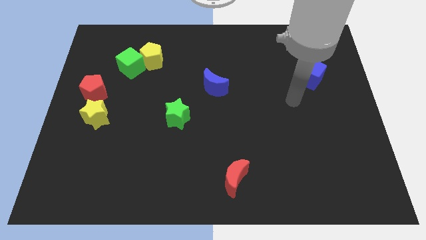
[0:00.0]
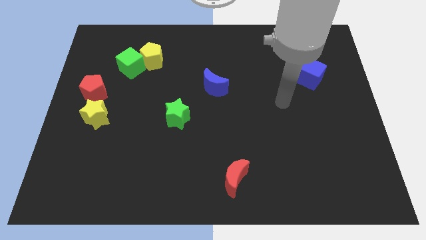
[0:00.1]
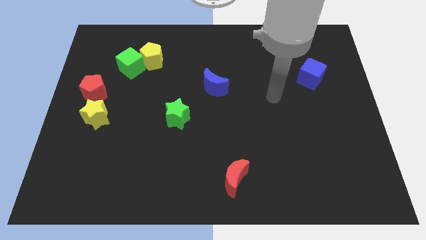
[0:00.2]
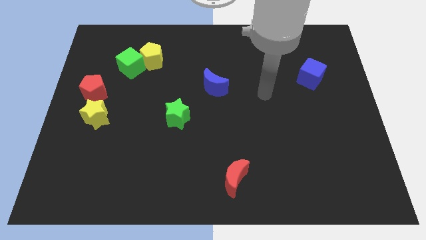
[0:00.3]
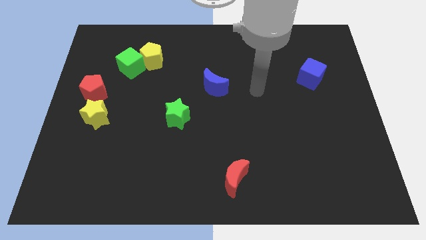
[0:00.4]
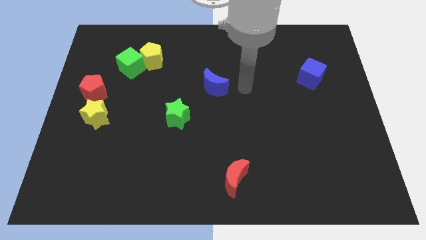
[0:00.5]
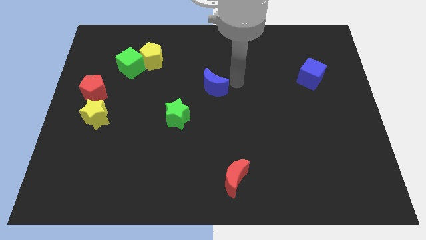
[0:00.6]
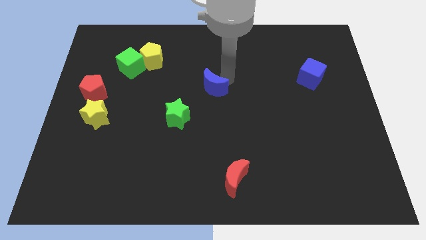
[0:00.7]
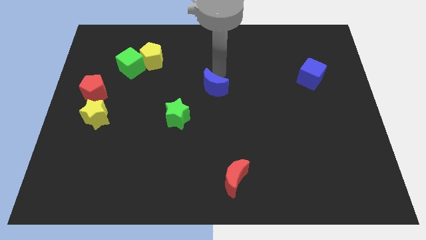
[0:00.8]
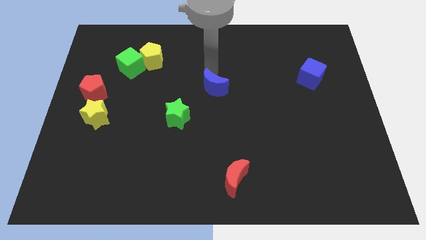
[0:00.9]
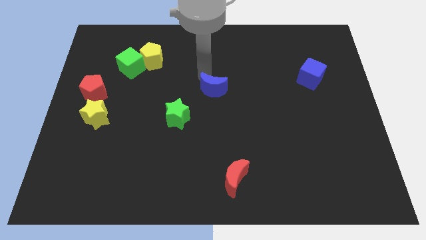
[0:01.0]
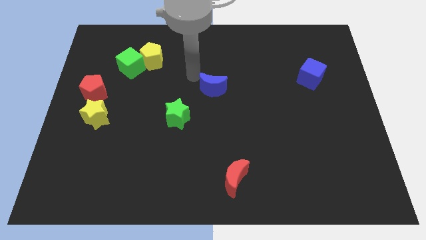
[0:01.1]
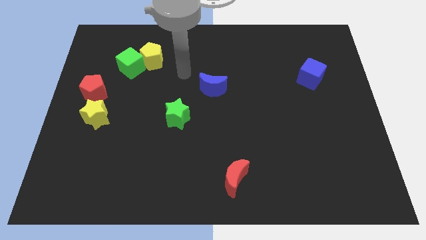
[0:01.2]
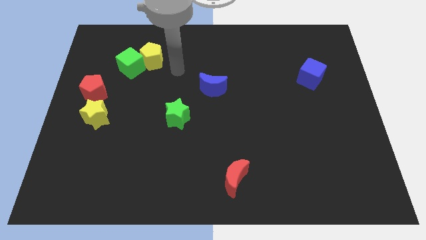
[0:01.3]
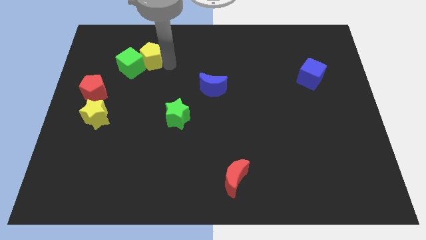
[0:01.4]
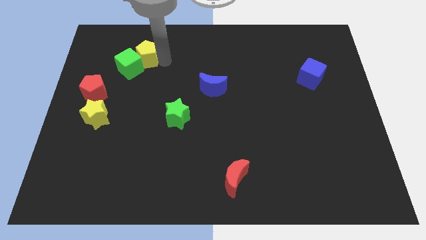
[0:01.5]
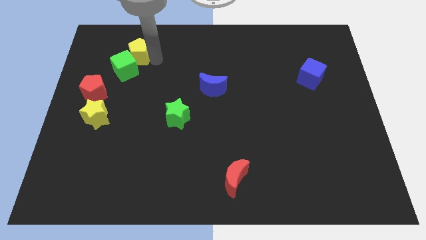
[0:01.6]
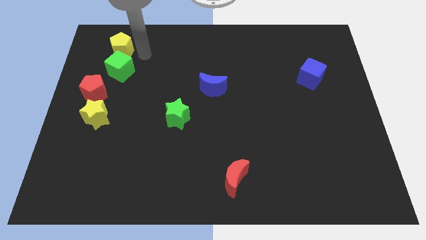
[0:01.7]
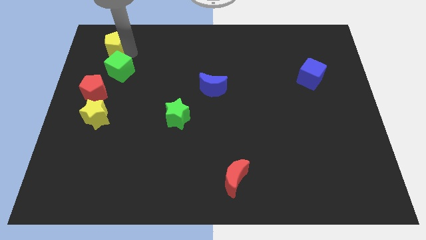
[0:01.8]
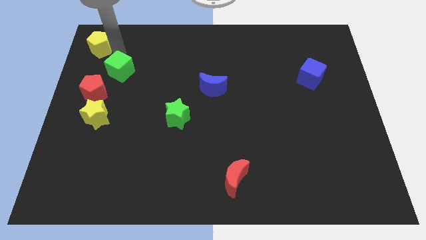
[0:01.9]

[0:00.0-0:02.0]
pull the green cube apart from the yellow pentagon

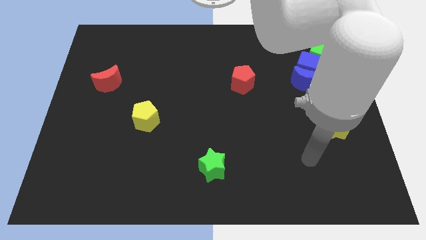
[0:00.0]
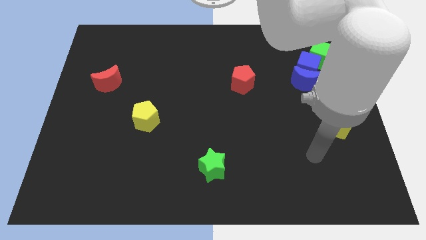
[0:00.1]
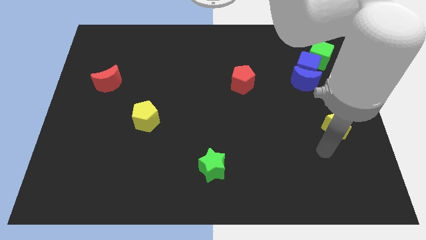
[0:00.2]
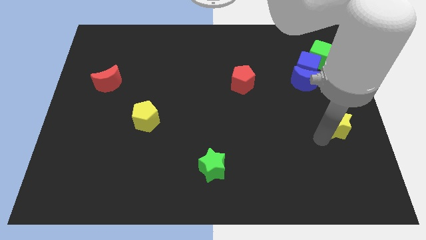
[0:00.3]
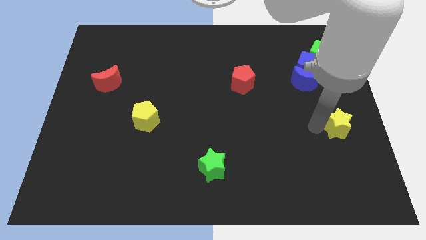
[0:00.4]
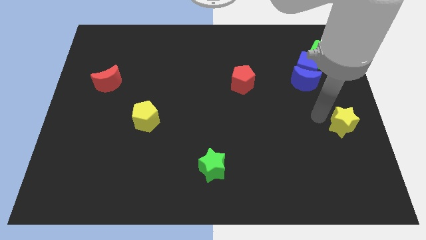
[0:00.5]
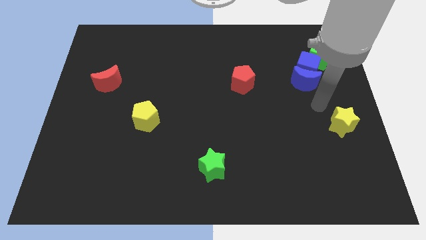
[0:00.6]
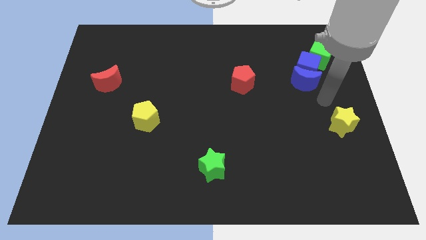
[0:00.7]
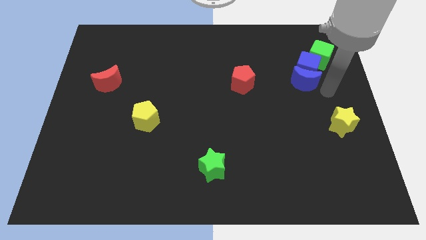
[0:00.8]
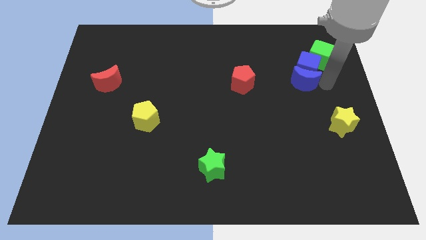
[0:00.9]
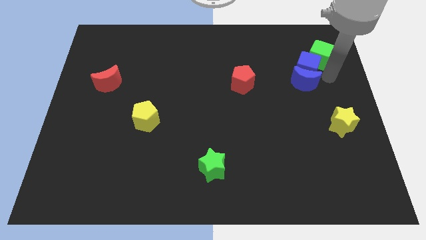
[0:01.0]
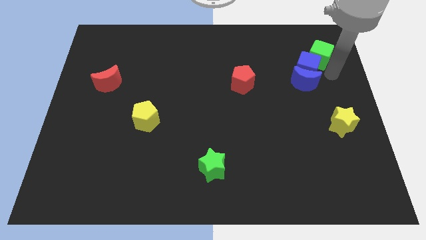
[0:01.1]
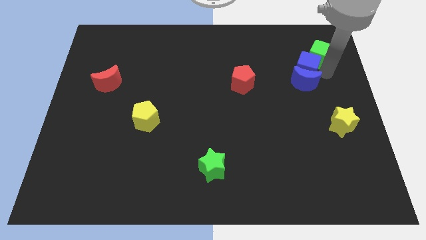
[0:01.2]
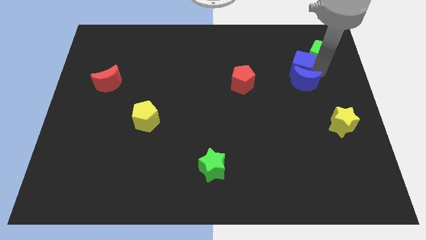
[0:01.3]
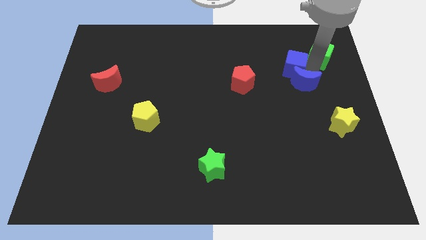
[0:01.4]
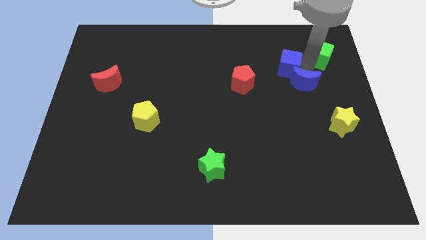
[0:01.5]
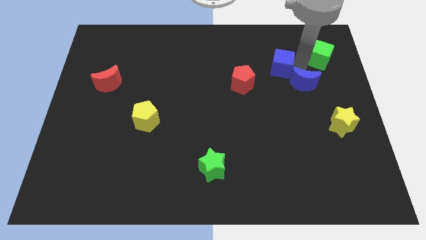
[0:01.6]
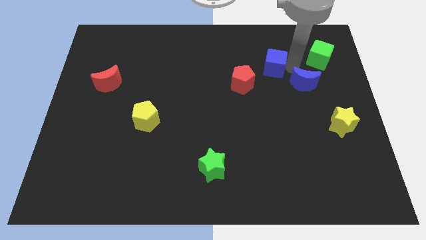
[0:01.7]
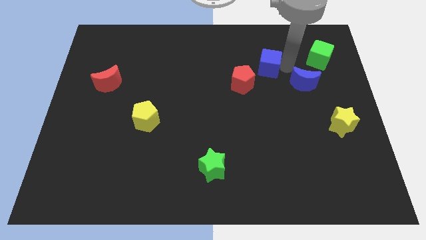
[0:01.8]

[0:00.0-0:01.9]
move the blue cube away from the blue moon and green cube

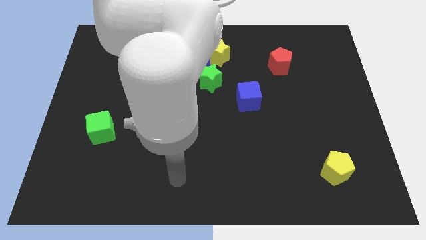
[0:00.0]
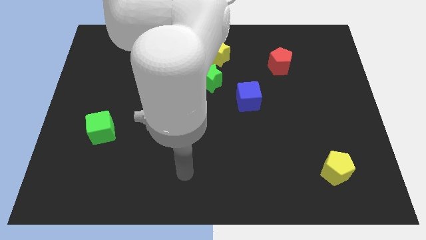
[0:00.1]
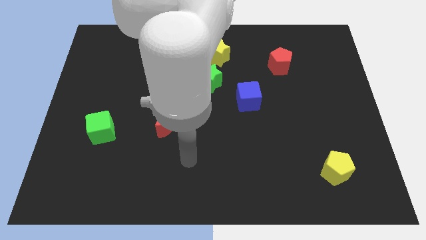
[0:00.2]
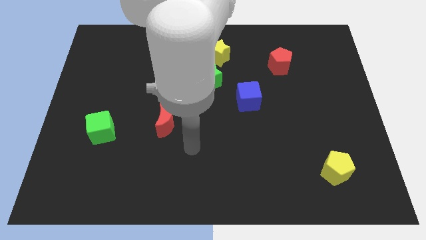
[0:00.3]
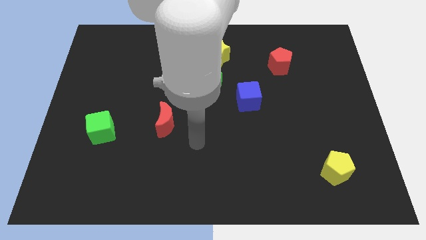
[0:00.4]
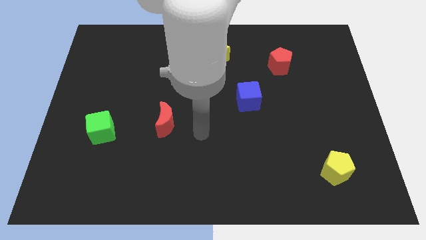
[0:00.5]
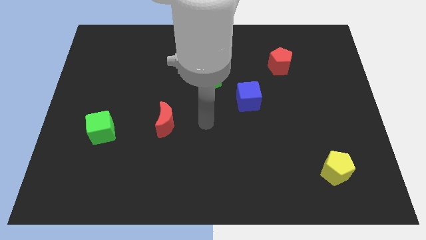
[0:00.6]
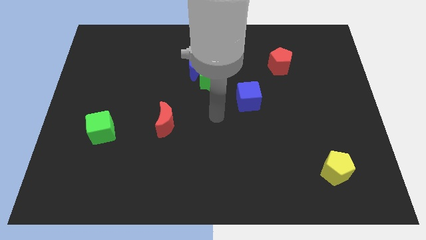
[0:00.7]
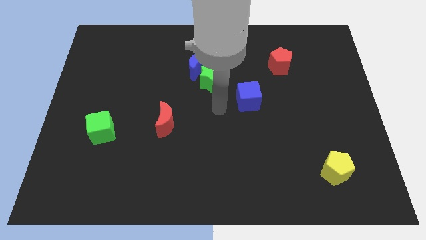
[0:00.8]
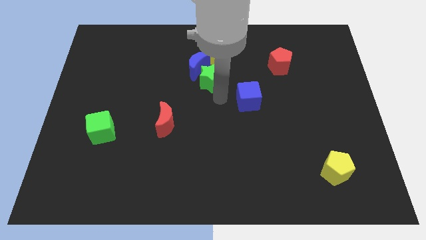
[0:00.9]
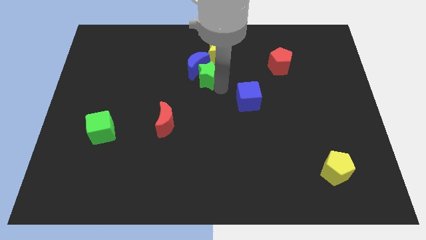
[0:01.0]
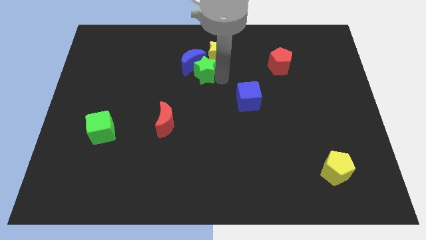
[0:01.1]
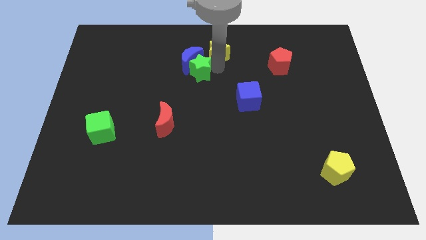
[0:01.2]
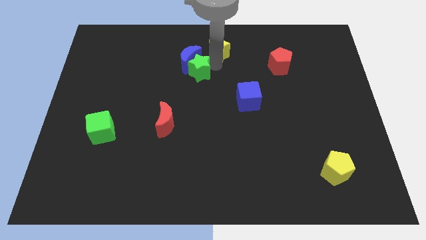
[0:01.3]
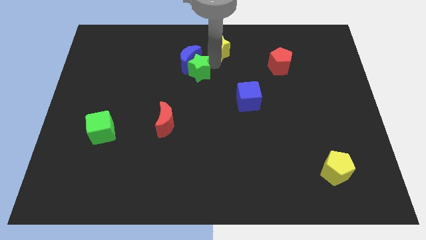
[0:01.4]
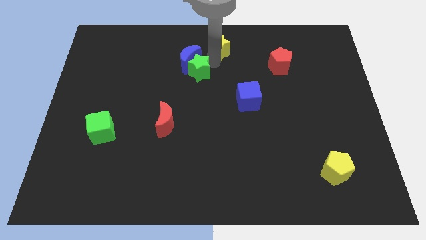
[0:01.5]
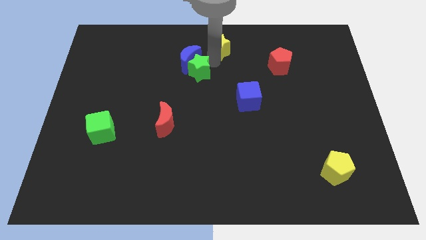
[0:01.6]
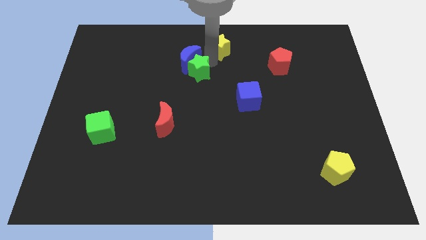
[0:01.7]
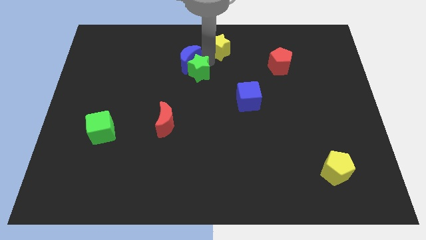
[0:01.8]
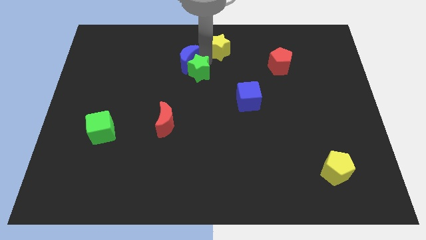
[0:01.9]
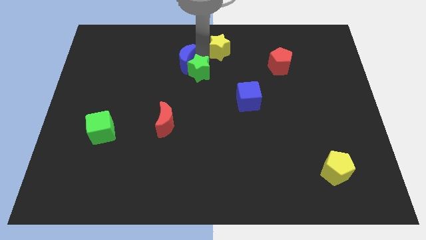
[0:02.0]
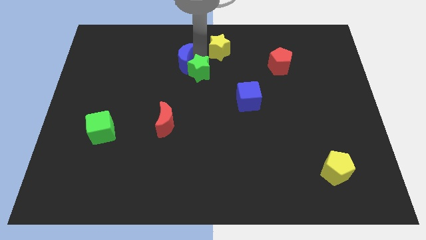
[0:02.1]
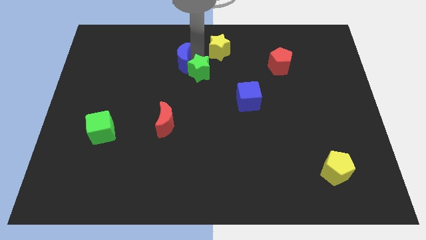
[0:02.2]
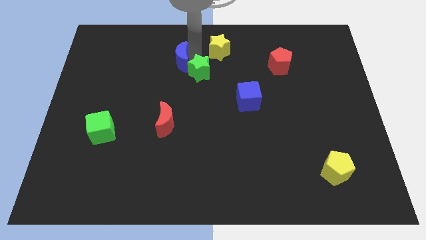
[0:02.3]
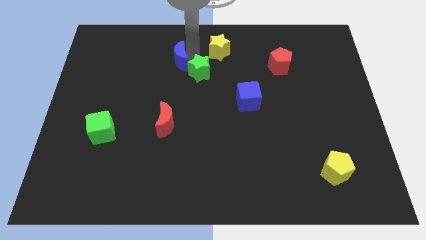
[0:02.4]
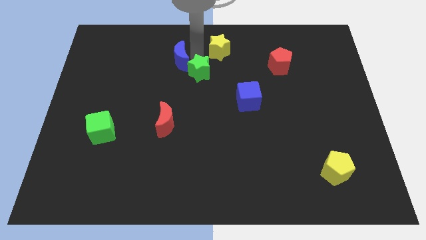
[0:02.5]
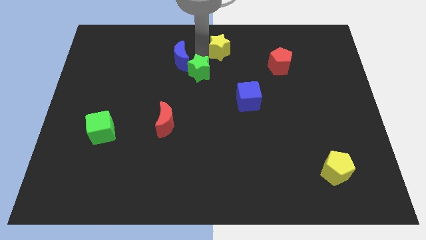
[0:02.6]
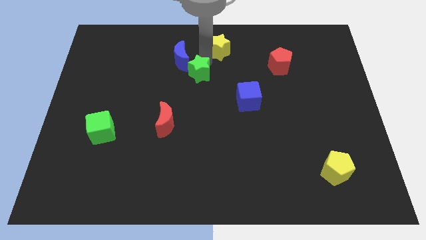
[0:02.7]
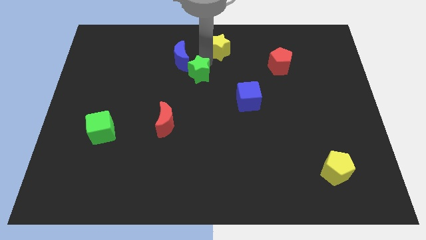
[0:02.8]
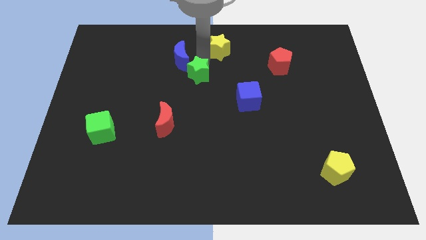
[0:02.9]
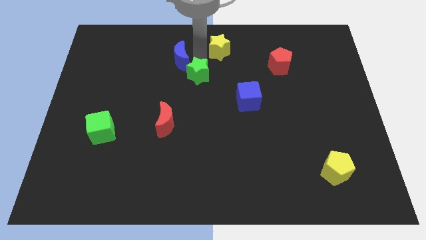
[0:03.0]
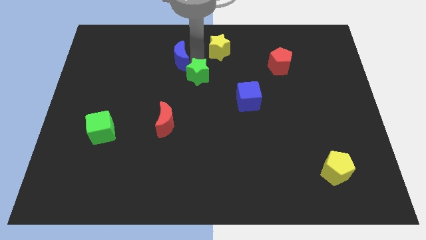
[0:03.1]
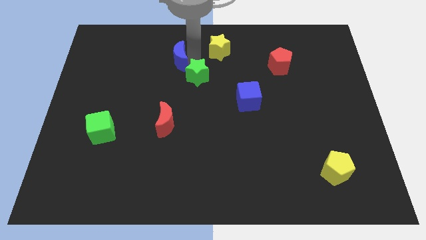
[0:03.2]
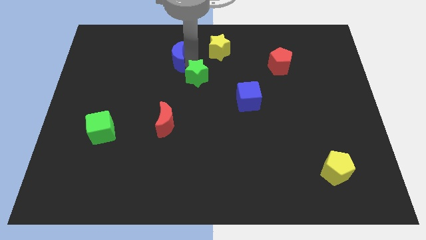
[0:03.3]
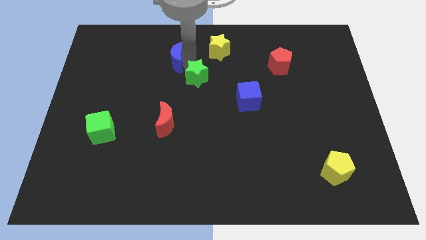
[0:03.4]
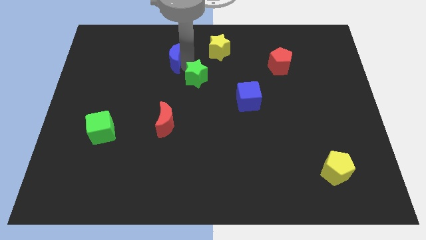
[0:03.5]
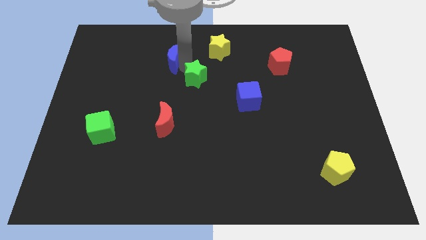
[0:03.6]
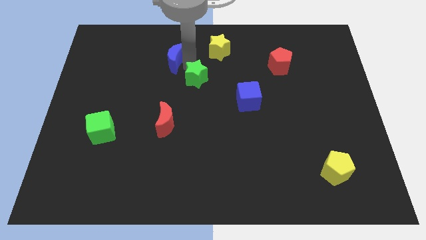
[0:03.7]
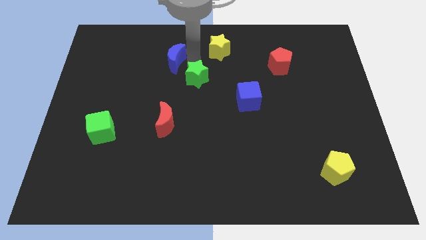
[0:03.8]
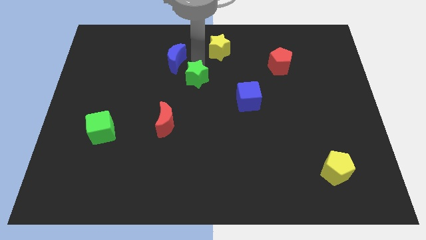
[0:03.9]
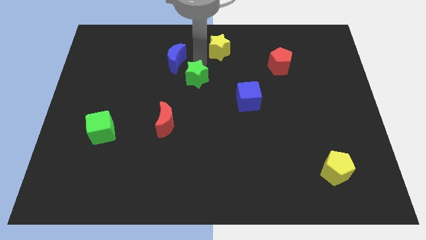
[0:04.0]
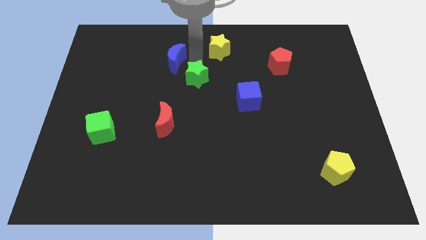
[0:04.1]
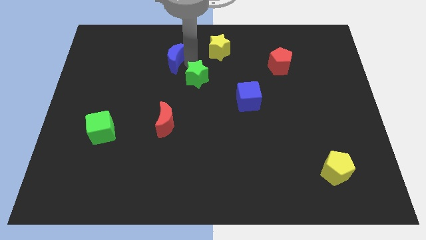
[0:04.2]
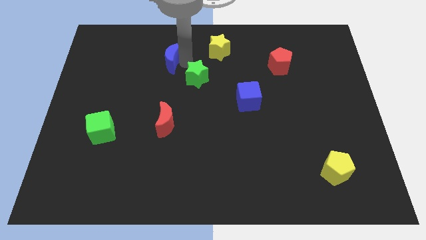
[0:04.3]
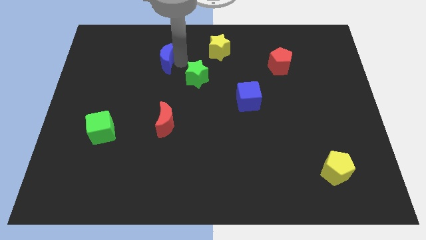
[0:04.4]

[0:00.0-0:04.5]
pull the blue moon apart from the green star and yellow star

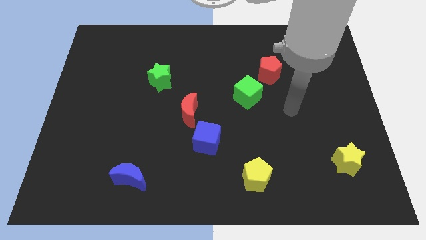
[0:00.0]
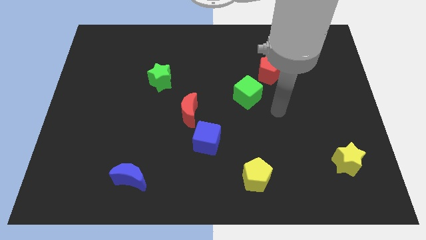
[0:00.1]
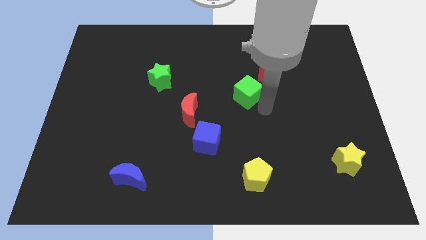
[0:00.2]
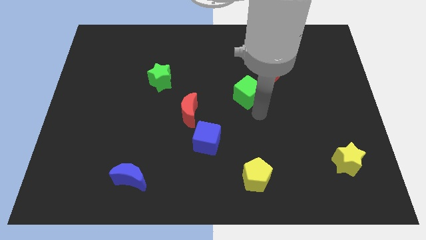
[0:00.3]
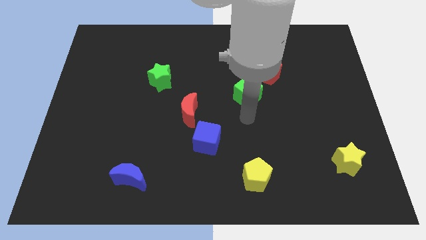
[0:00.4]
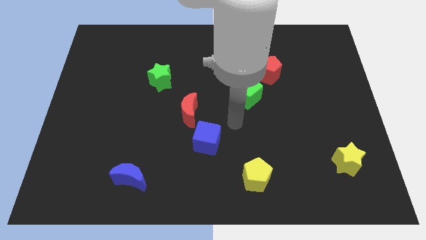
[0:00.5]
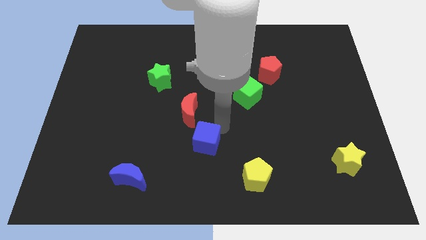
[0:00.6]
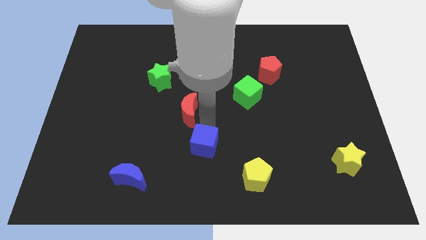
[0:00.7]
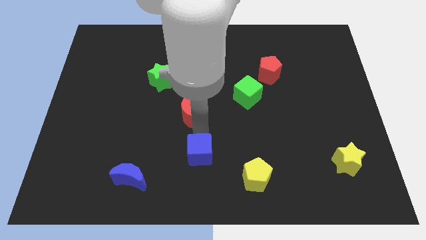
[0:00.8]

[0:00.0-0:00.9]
move the red moon away from the blue cube

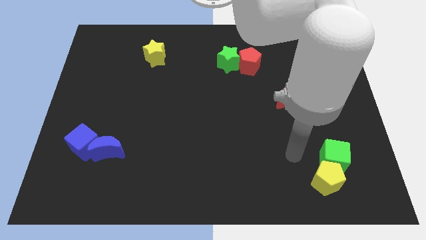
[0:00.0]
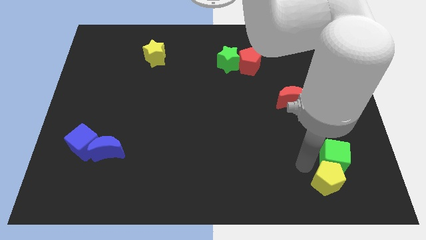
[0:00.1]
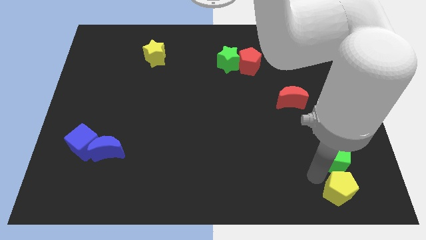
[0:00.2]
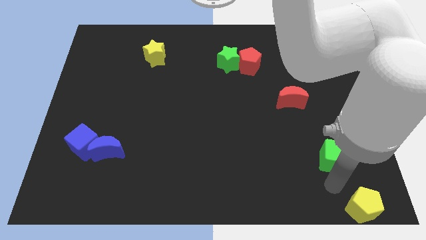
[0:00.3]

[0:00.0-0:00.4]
move the green cube away from the yellow pentagon
